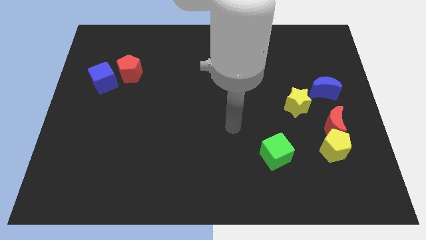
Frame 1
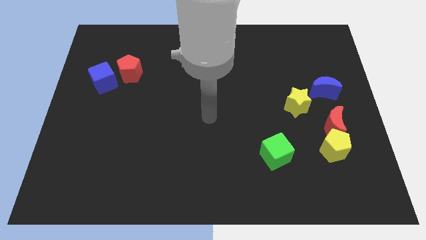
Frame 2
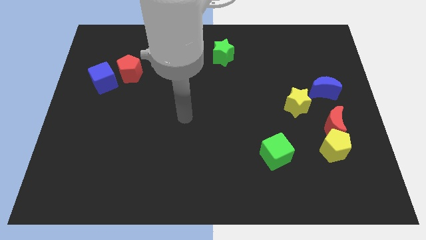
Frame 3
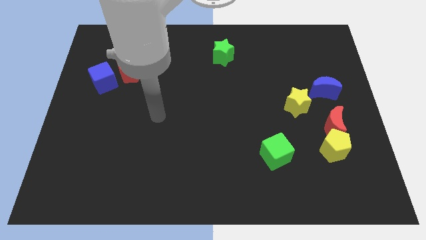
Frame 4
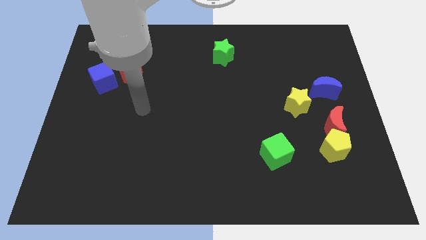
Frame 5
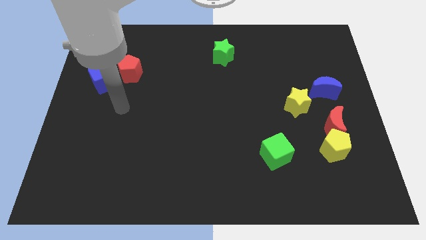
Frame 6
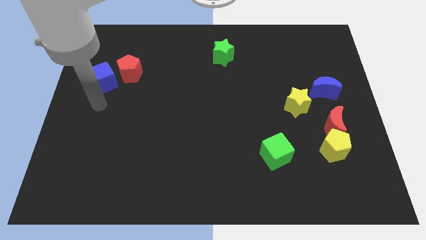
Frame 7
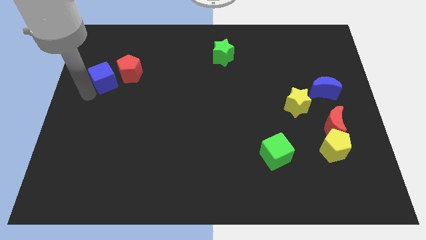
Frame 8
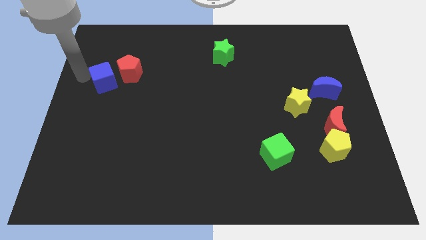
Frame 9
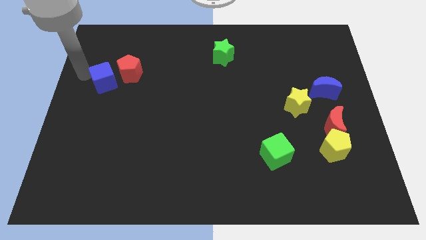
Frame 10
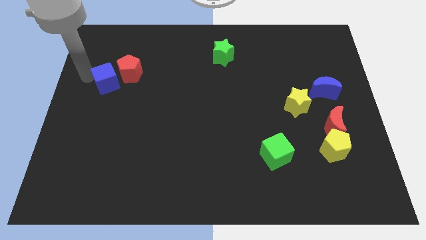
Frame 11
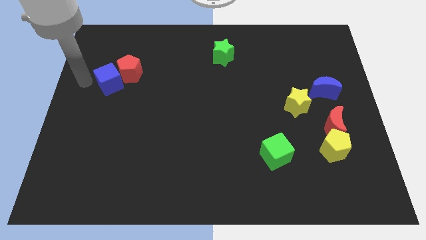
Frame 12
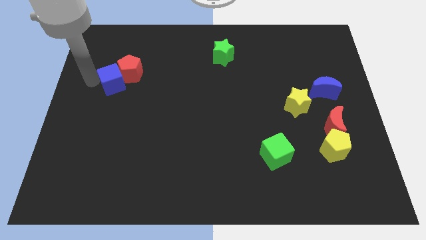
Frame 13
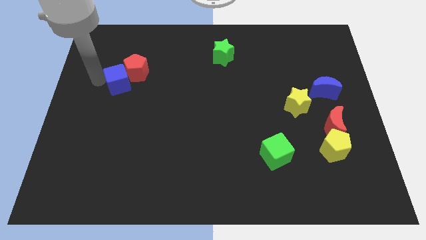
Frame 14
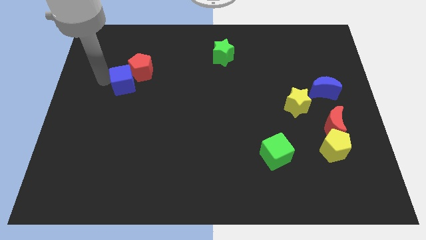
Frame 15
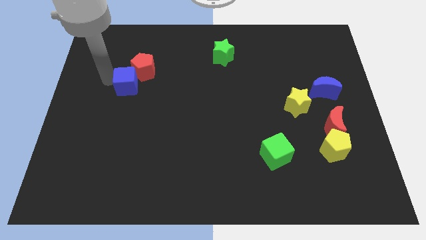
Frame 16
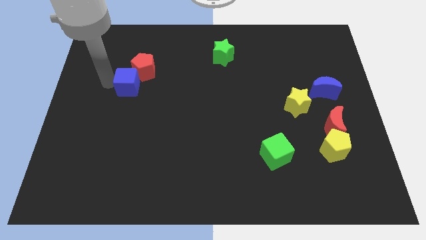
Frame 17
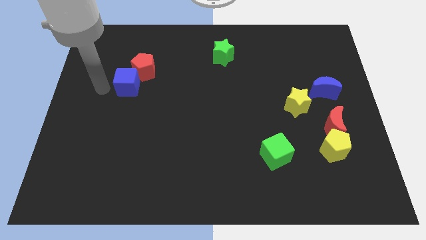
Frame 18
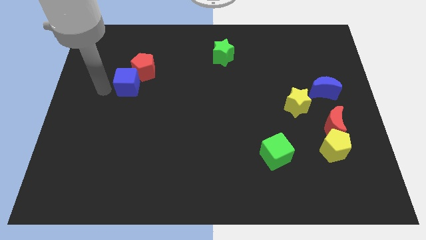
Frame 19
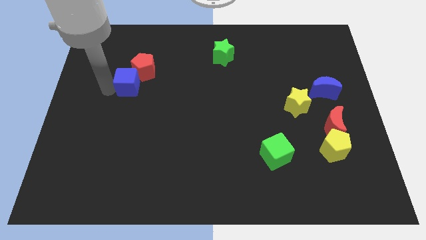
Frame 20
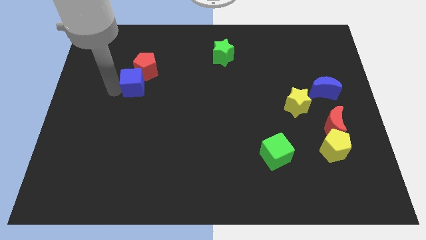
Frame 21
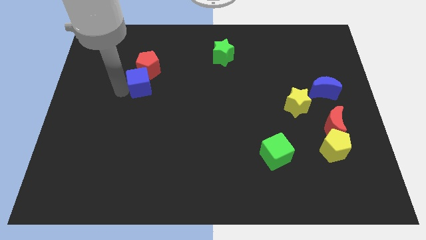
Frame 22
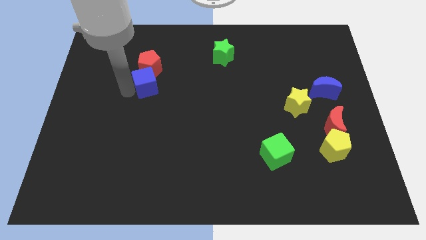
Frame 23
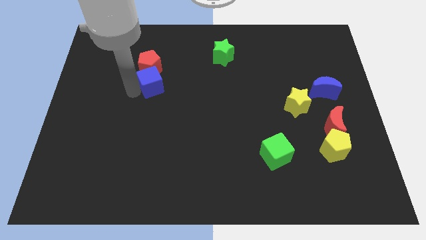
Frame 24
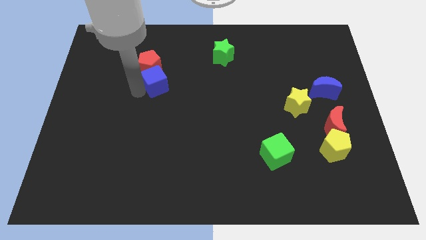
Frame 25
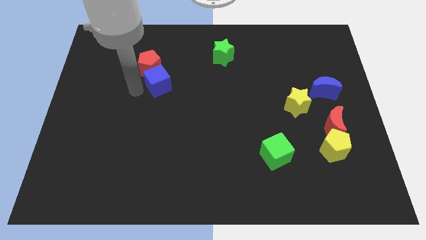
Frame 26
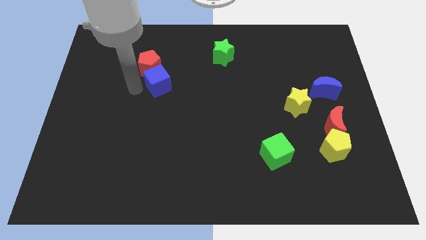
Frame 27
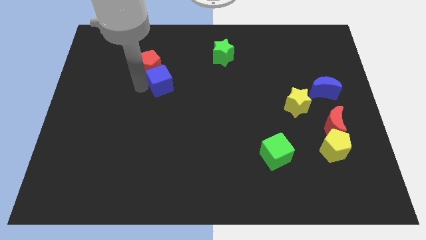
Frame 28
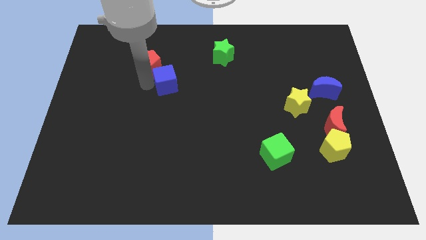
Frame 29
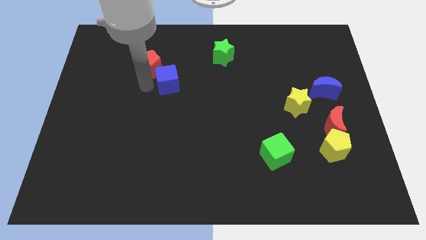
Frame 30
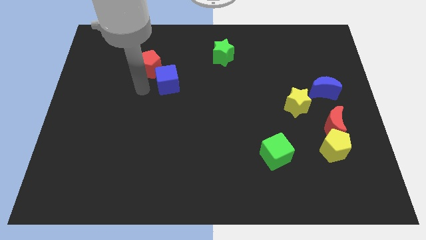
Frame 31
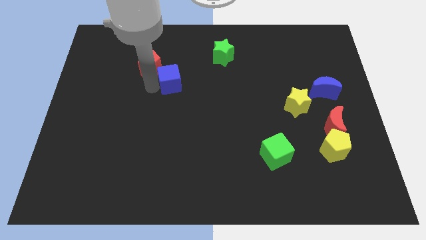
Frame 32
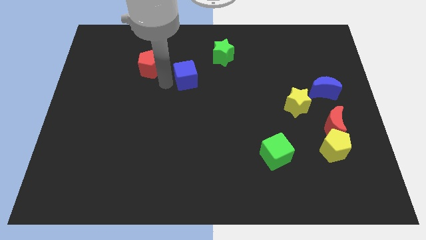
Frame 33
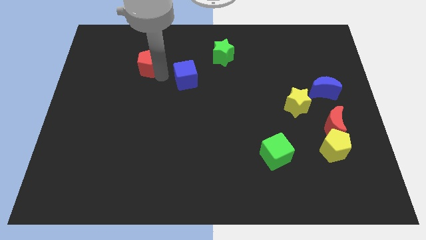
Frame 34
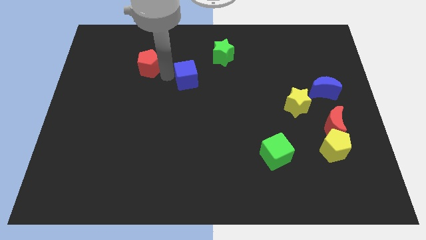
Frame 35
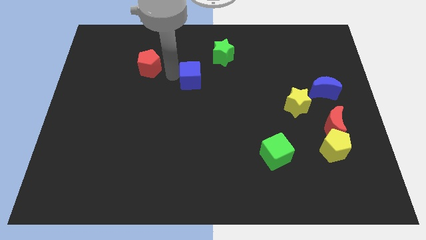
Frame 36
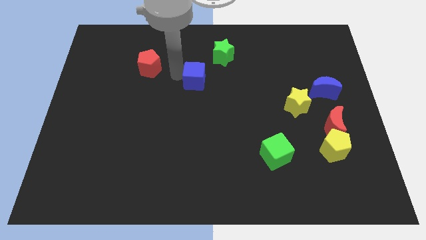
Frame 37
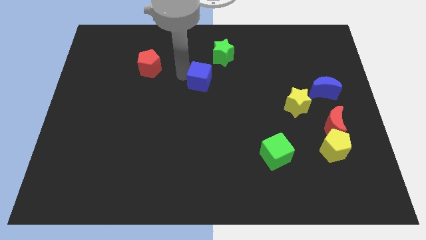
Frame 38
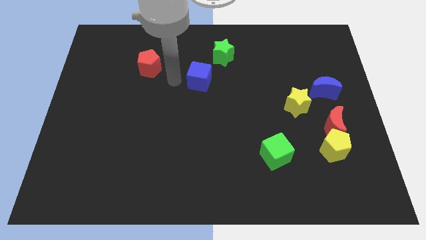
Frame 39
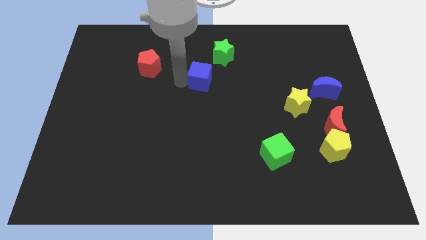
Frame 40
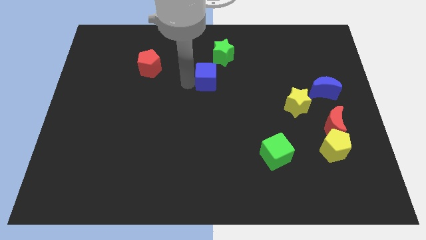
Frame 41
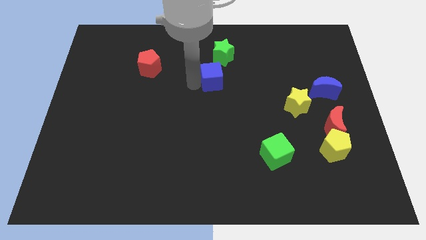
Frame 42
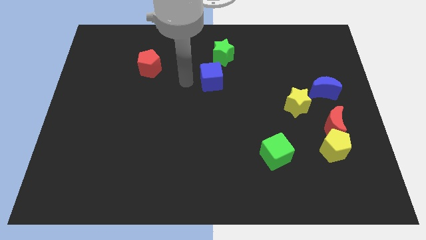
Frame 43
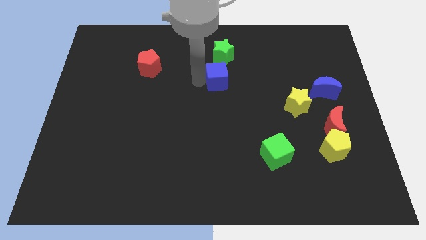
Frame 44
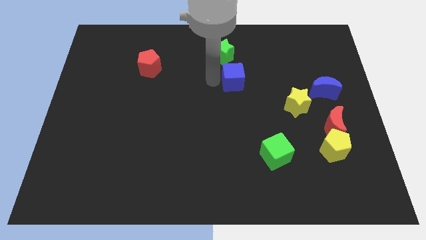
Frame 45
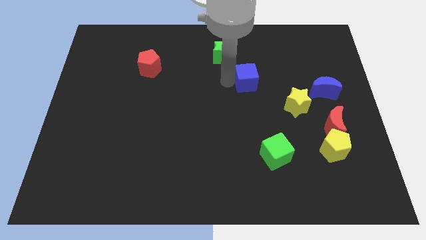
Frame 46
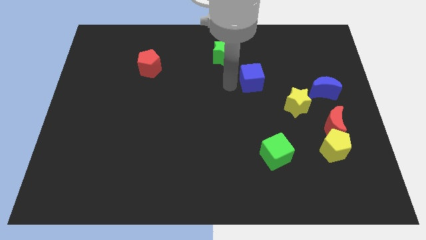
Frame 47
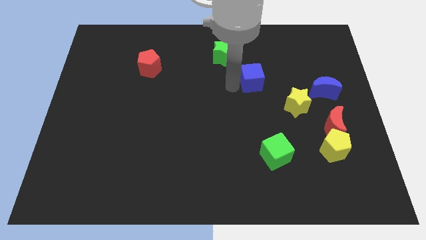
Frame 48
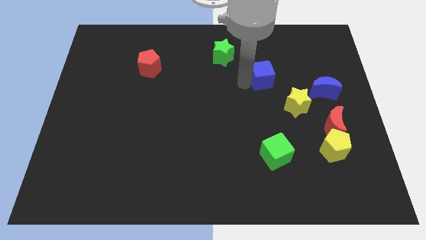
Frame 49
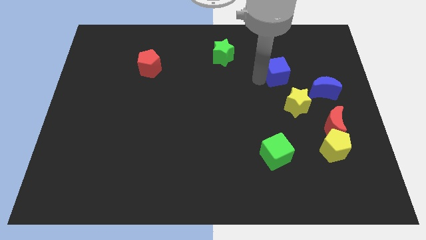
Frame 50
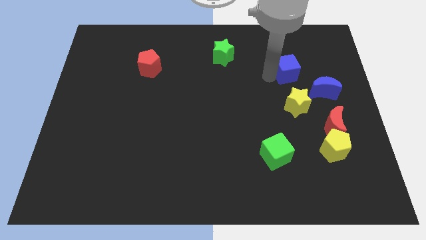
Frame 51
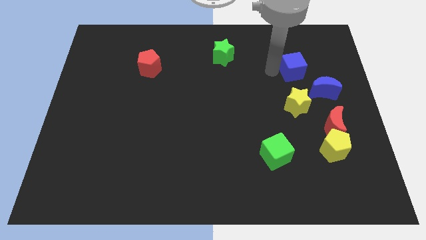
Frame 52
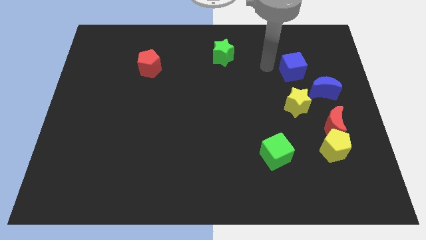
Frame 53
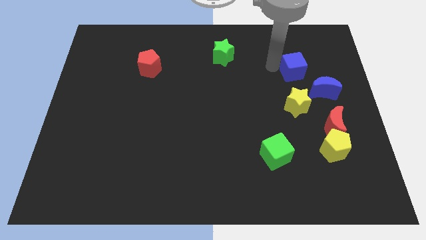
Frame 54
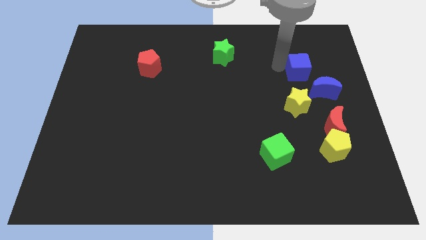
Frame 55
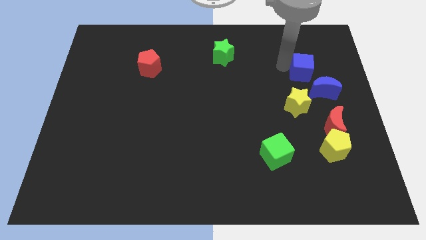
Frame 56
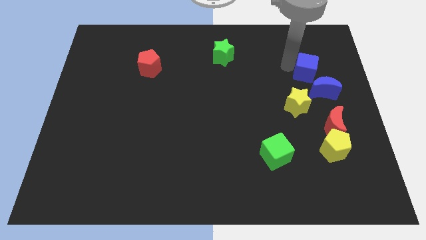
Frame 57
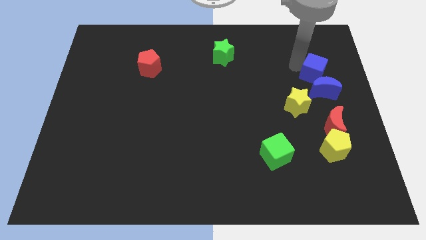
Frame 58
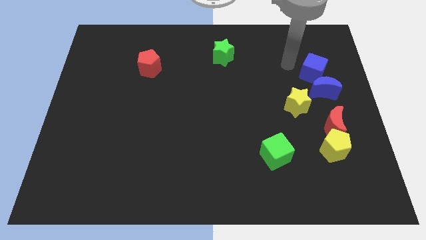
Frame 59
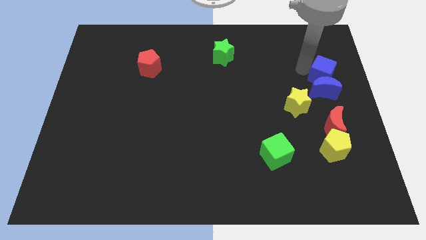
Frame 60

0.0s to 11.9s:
push the blue cube to the right side

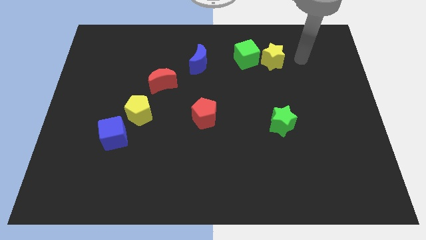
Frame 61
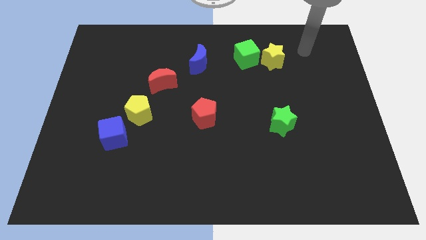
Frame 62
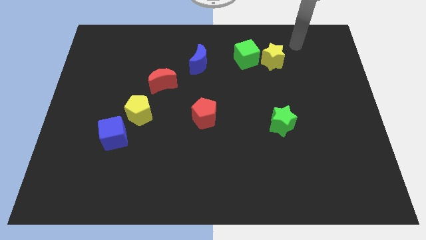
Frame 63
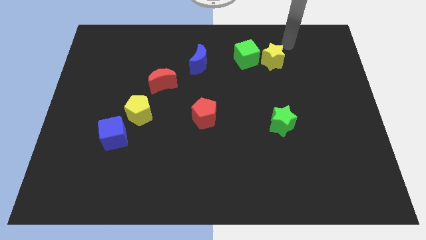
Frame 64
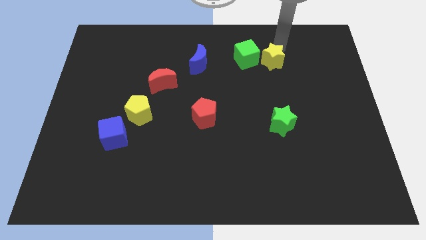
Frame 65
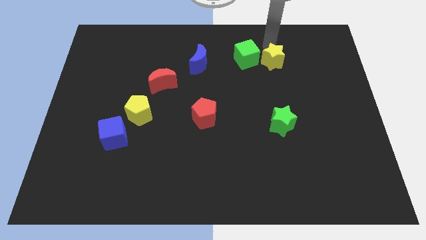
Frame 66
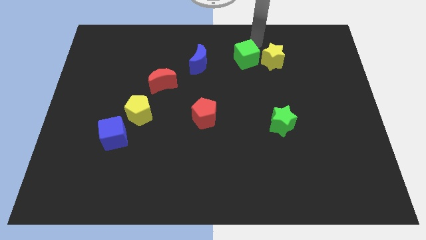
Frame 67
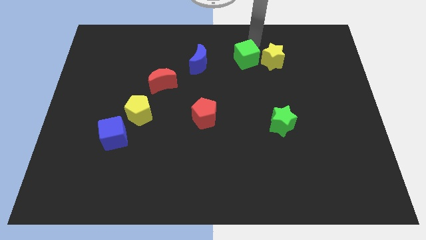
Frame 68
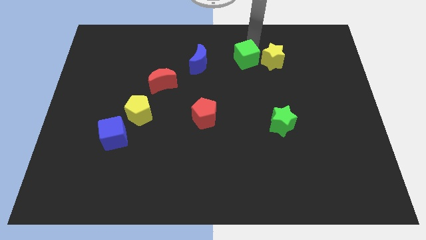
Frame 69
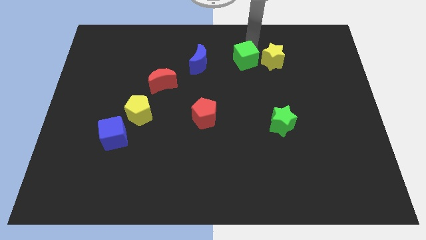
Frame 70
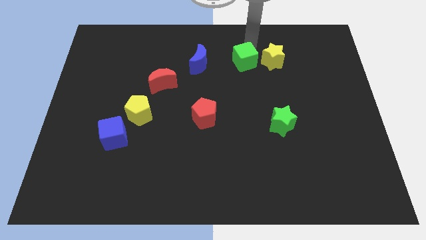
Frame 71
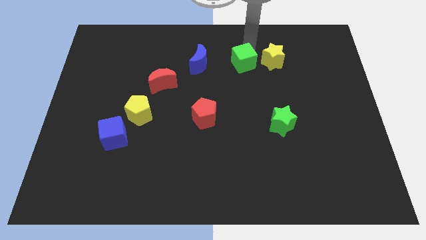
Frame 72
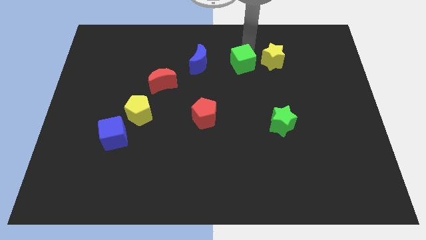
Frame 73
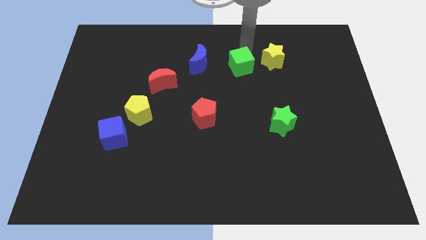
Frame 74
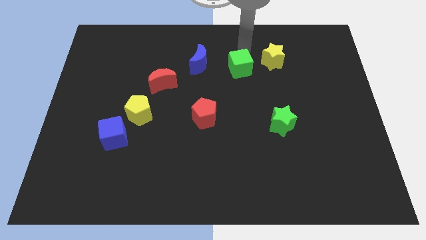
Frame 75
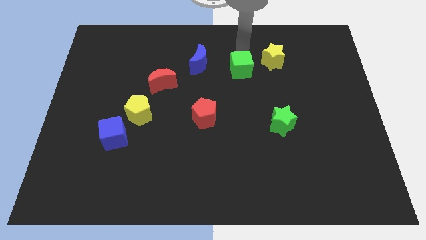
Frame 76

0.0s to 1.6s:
slide the green cube to the center
